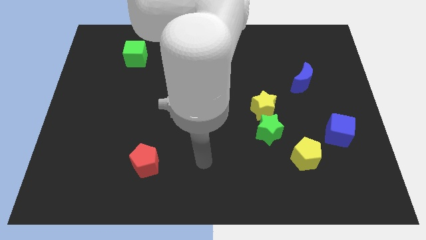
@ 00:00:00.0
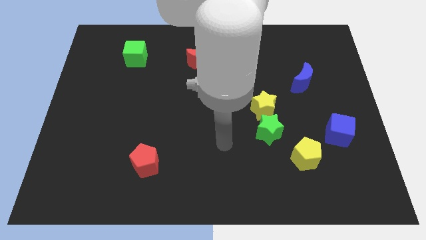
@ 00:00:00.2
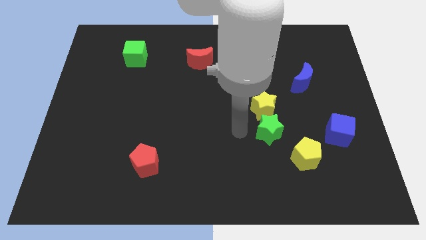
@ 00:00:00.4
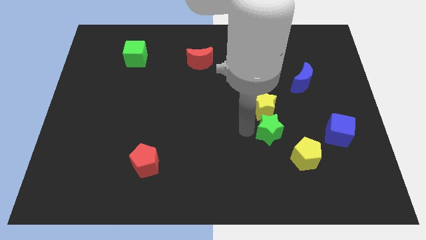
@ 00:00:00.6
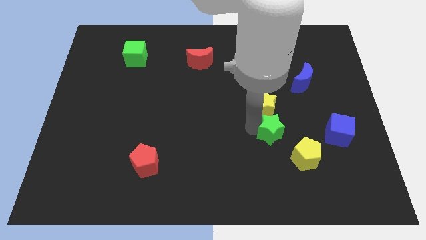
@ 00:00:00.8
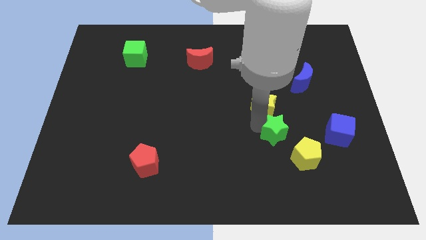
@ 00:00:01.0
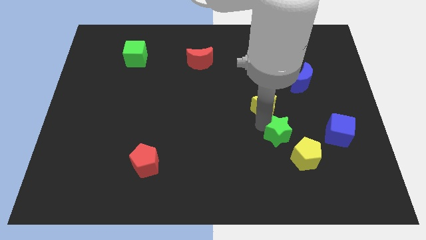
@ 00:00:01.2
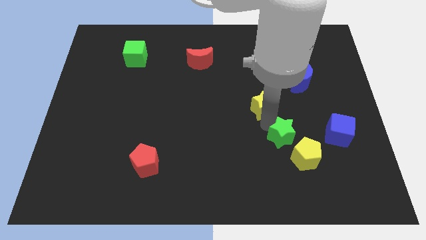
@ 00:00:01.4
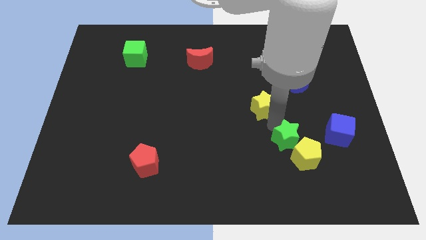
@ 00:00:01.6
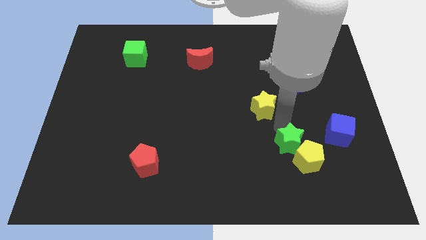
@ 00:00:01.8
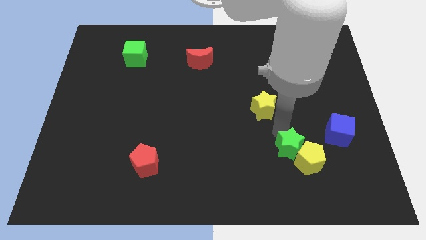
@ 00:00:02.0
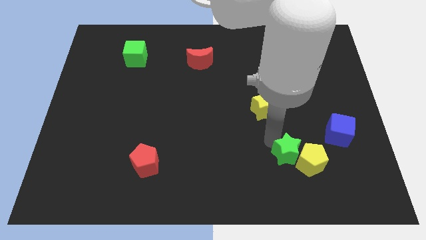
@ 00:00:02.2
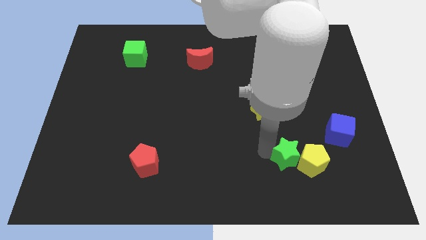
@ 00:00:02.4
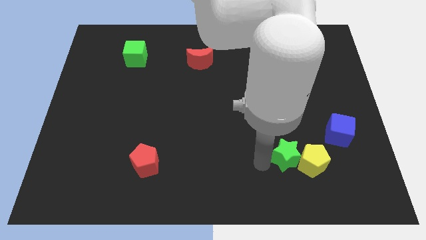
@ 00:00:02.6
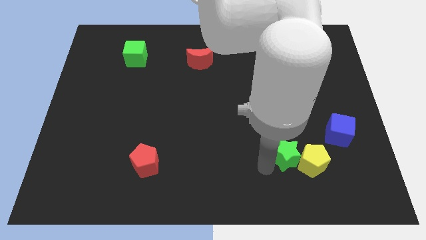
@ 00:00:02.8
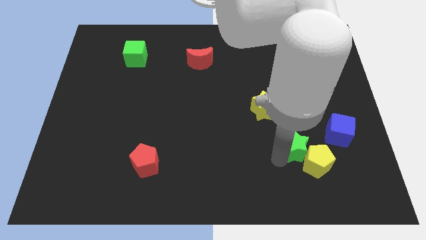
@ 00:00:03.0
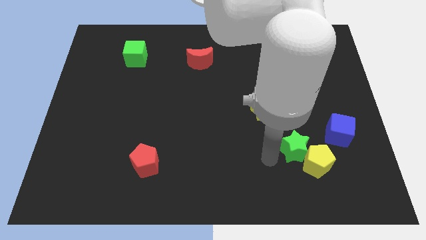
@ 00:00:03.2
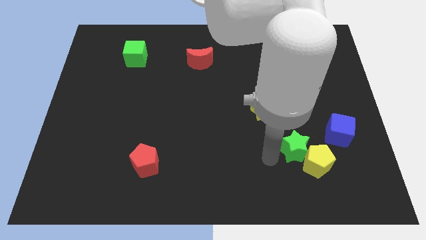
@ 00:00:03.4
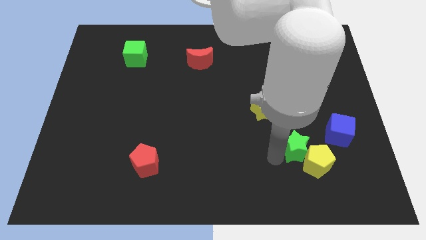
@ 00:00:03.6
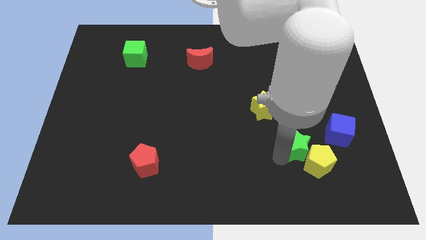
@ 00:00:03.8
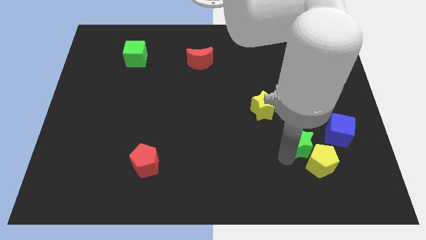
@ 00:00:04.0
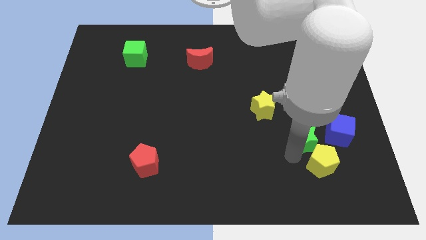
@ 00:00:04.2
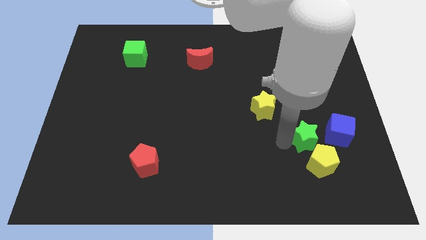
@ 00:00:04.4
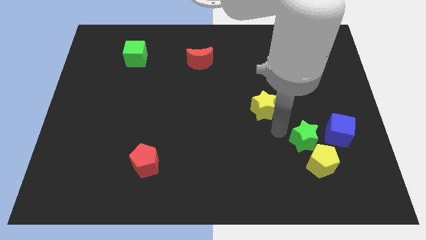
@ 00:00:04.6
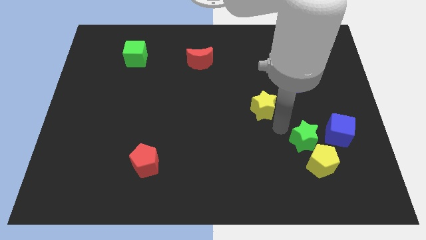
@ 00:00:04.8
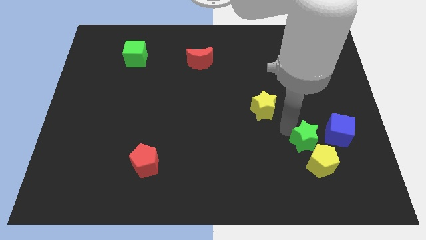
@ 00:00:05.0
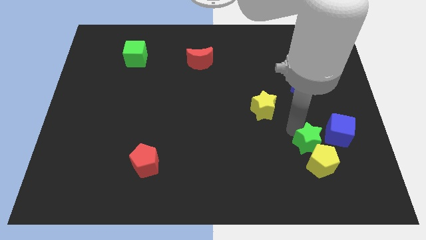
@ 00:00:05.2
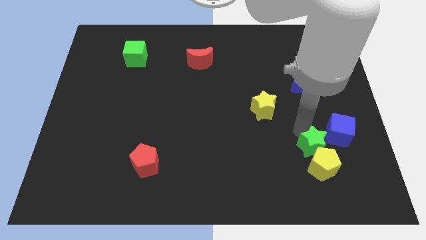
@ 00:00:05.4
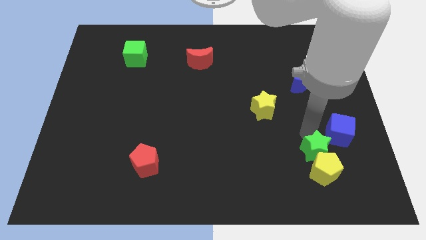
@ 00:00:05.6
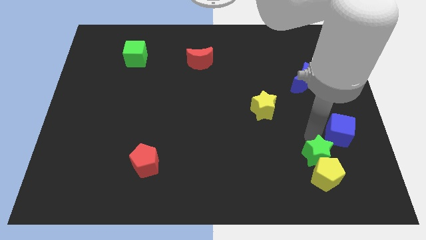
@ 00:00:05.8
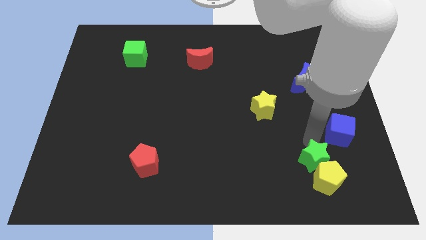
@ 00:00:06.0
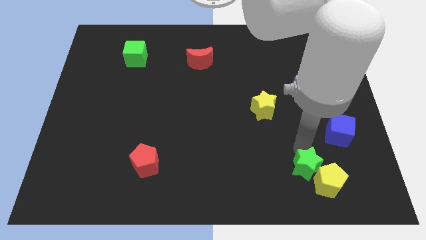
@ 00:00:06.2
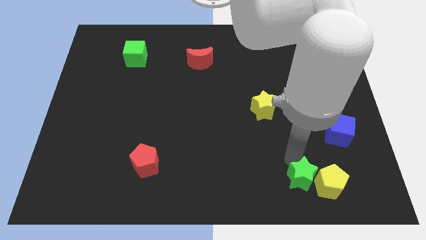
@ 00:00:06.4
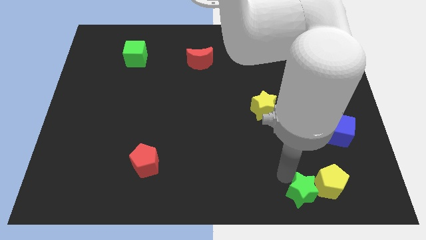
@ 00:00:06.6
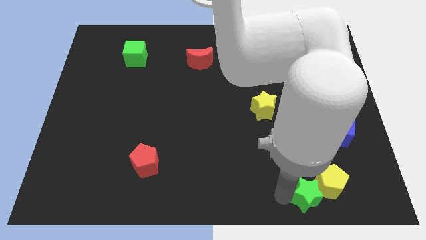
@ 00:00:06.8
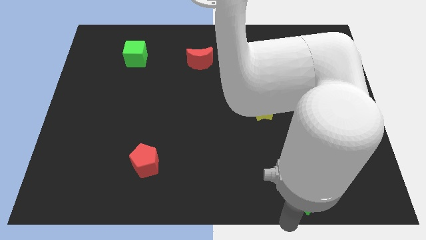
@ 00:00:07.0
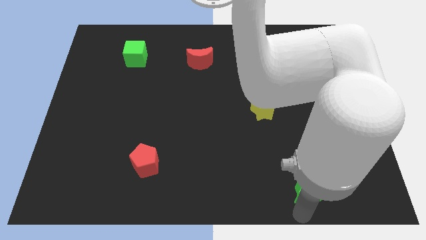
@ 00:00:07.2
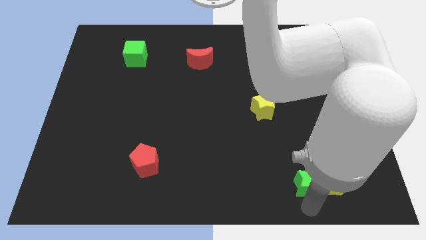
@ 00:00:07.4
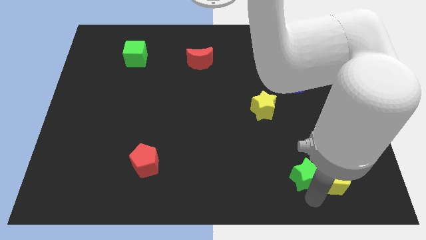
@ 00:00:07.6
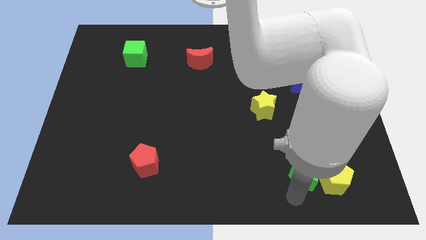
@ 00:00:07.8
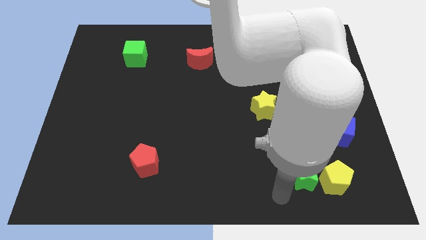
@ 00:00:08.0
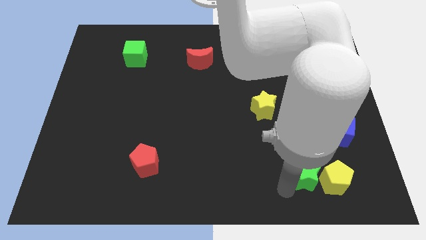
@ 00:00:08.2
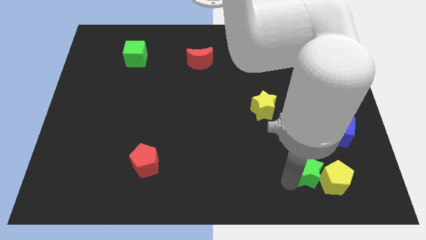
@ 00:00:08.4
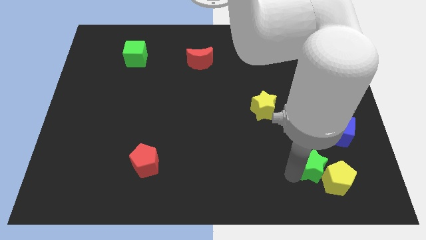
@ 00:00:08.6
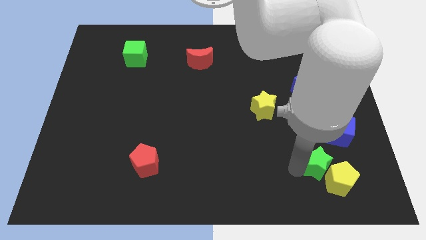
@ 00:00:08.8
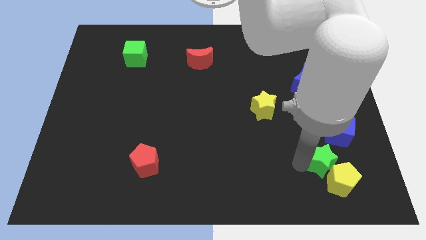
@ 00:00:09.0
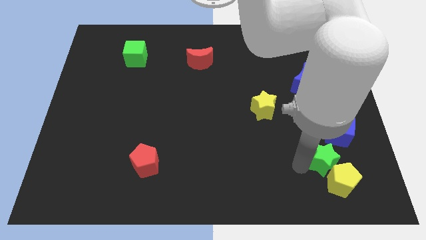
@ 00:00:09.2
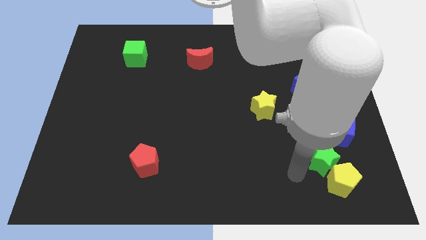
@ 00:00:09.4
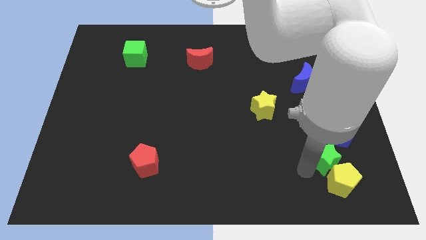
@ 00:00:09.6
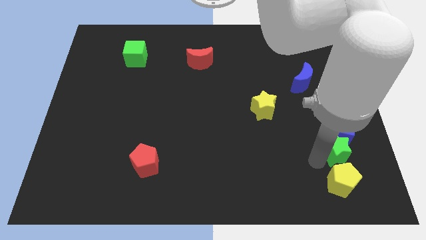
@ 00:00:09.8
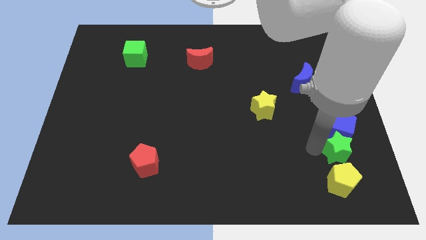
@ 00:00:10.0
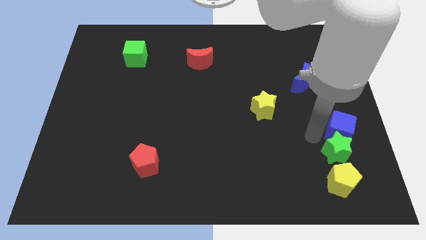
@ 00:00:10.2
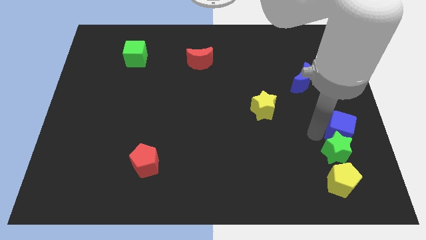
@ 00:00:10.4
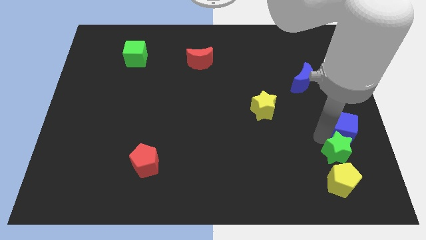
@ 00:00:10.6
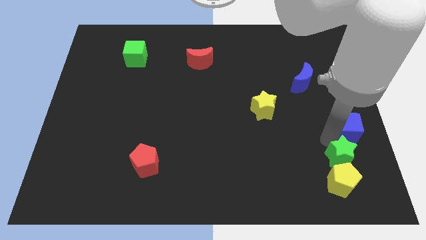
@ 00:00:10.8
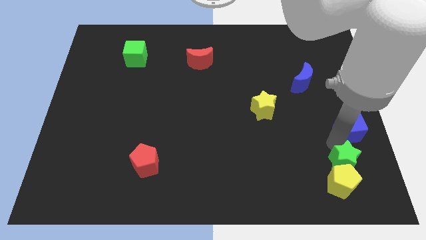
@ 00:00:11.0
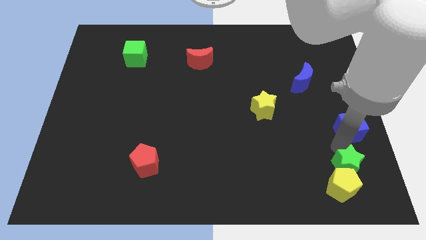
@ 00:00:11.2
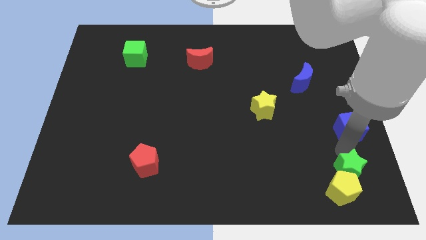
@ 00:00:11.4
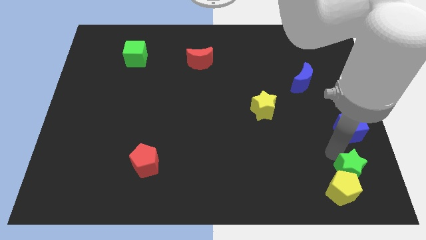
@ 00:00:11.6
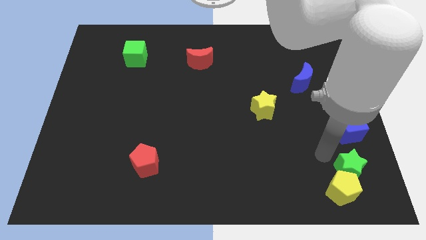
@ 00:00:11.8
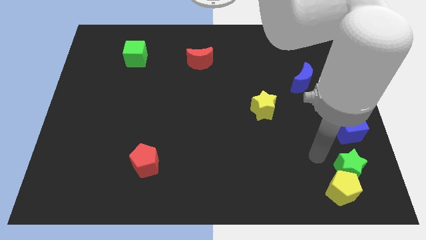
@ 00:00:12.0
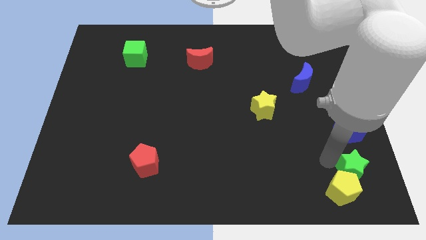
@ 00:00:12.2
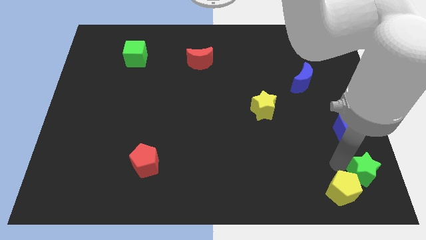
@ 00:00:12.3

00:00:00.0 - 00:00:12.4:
push the green star to the lower right corner
